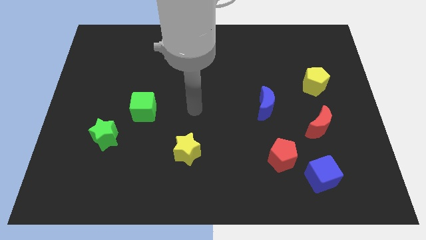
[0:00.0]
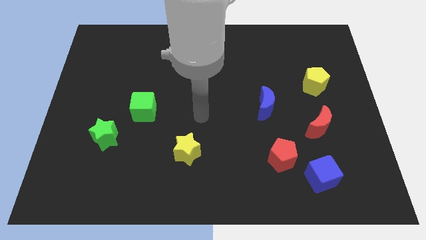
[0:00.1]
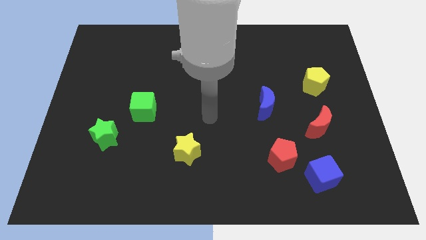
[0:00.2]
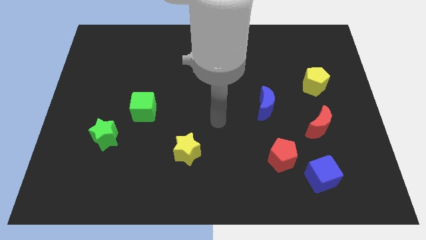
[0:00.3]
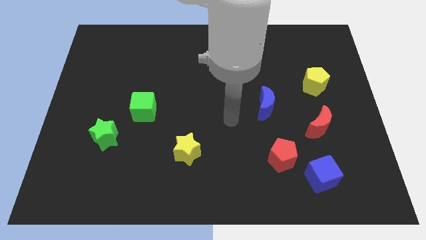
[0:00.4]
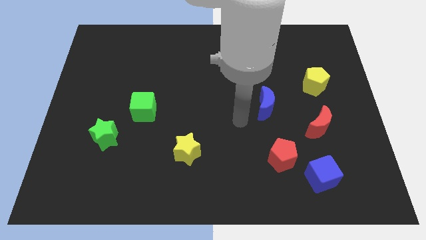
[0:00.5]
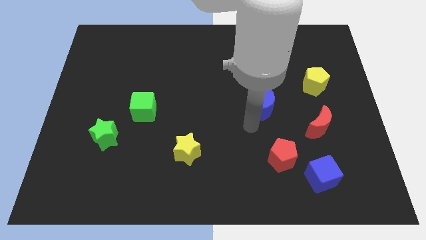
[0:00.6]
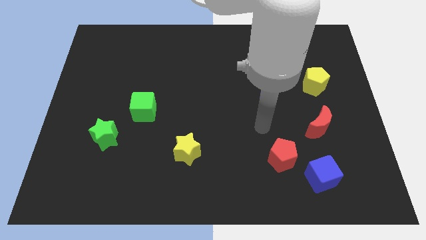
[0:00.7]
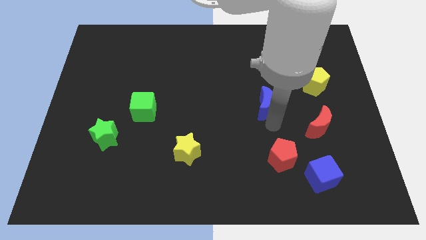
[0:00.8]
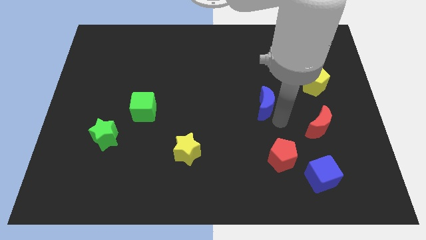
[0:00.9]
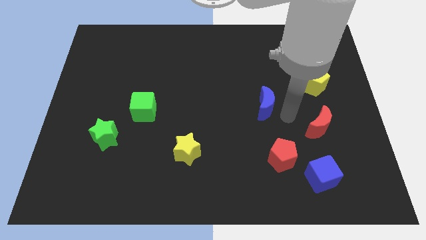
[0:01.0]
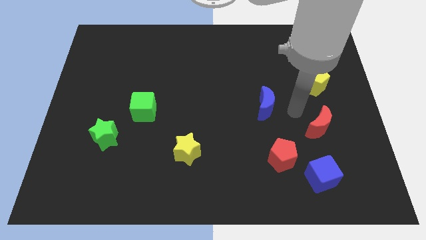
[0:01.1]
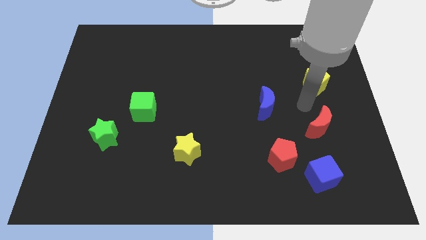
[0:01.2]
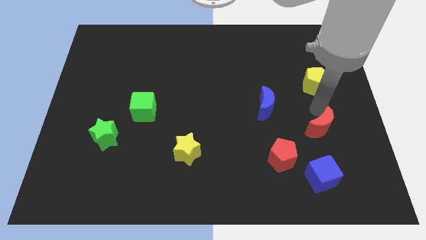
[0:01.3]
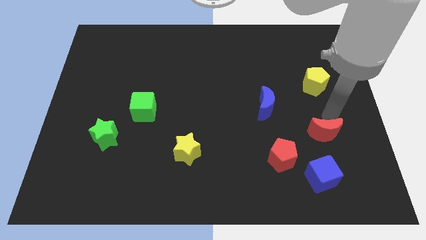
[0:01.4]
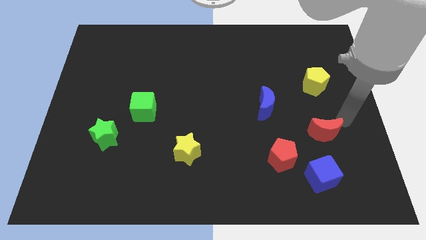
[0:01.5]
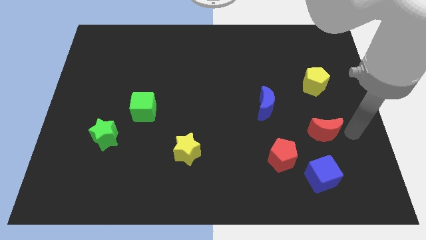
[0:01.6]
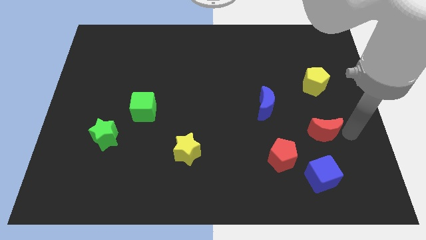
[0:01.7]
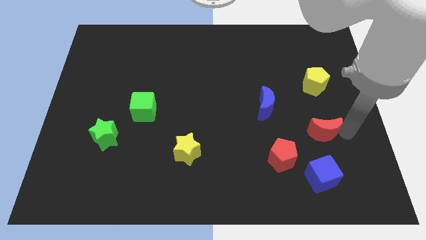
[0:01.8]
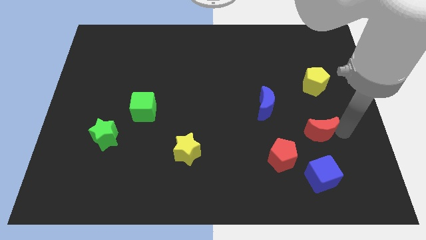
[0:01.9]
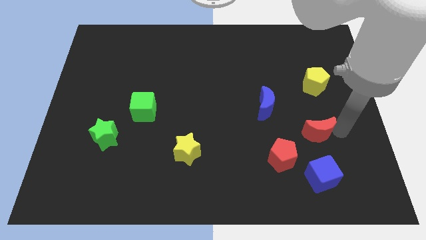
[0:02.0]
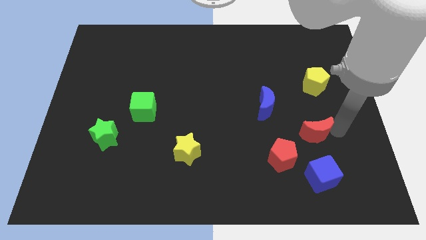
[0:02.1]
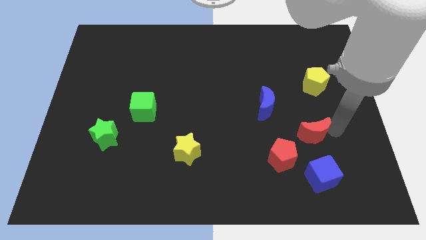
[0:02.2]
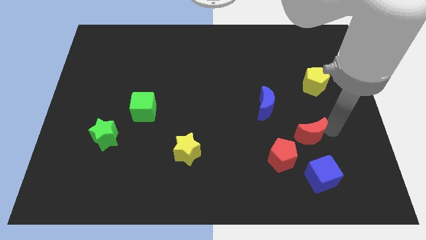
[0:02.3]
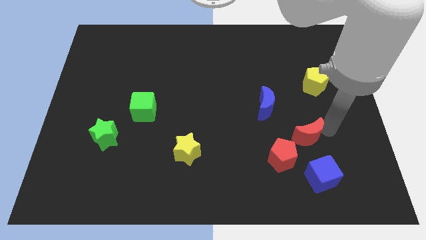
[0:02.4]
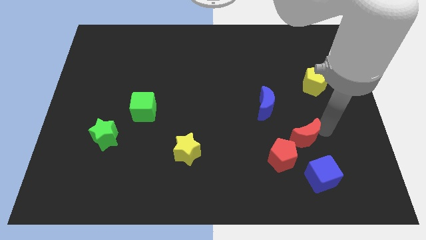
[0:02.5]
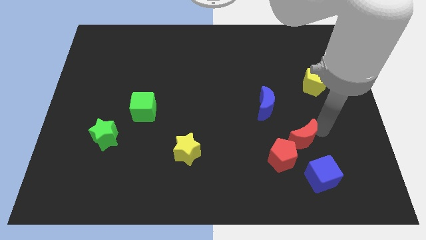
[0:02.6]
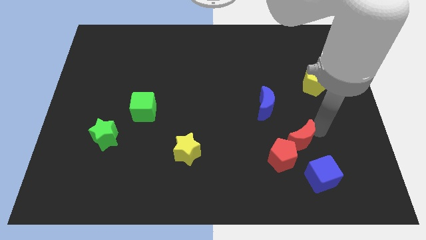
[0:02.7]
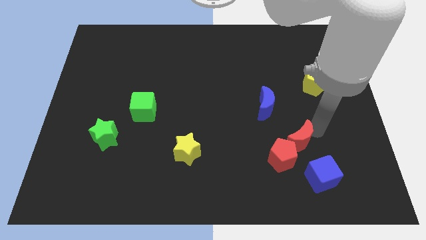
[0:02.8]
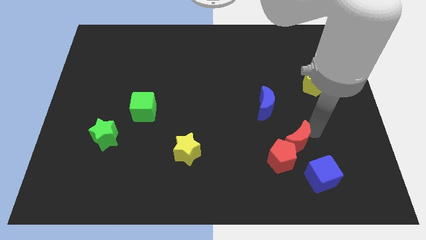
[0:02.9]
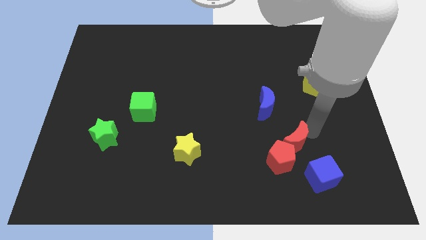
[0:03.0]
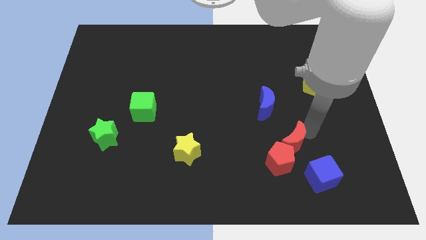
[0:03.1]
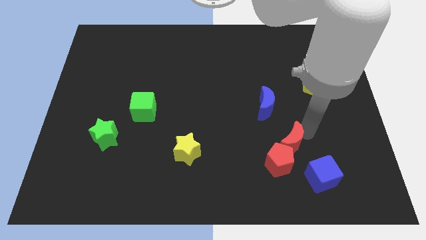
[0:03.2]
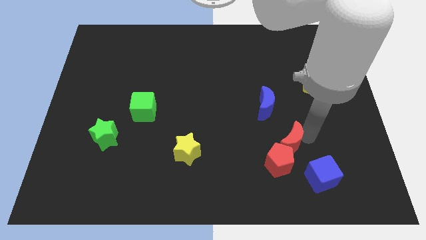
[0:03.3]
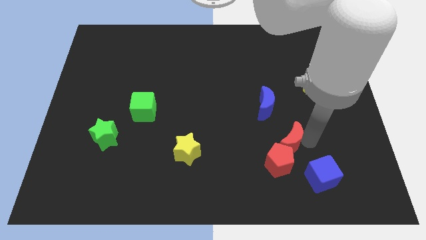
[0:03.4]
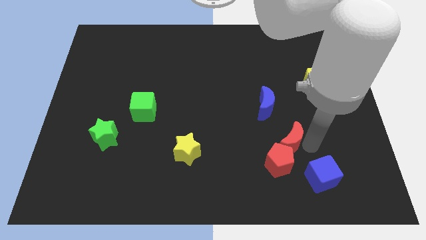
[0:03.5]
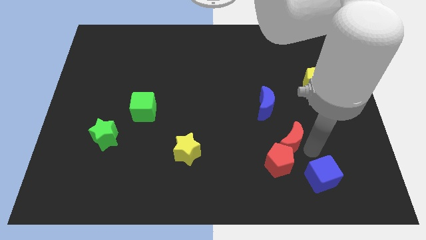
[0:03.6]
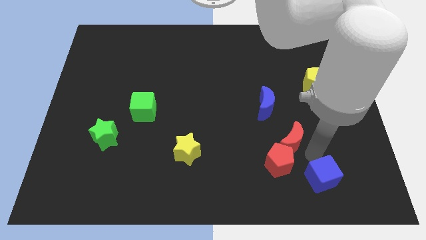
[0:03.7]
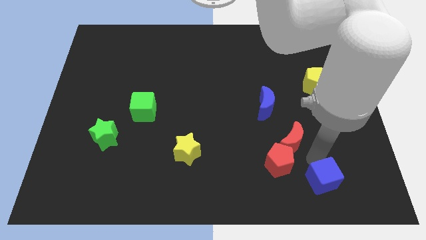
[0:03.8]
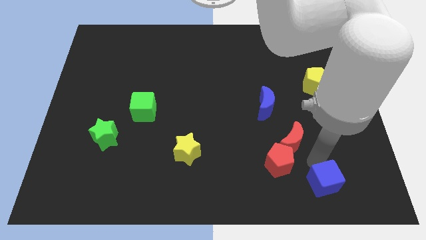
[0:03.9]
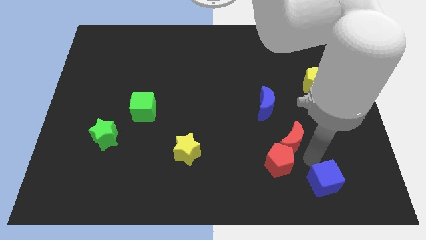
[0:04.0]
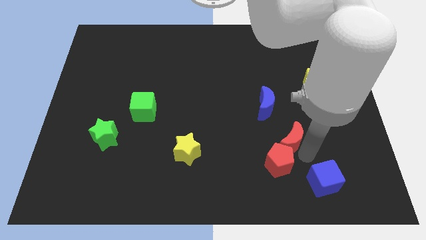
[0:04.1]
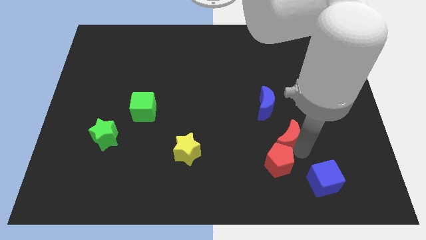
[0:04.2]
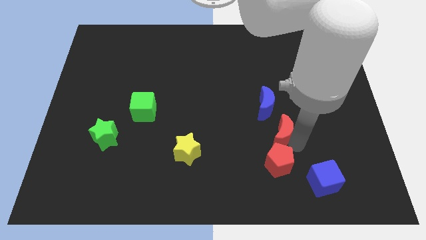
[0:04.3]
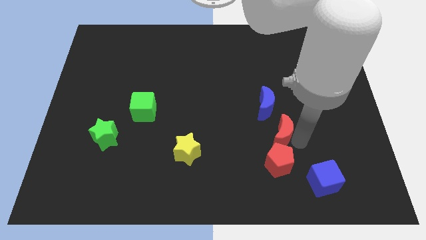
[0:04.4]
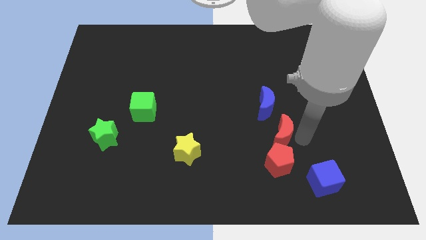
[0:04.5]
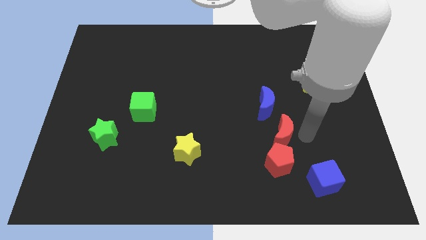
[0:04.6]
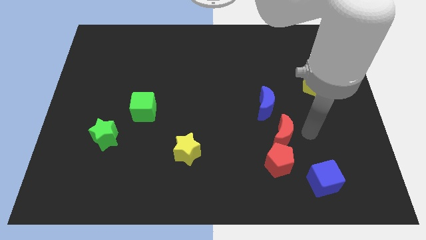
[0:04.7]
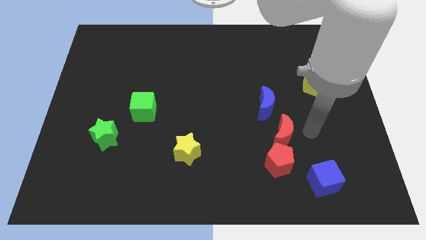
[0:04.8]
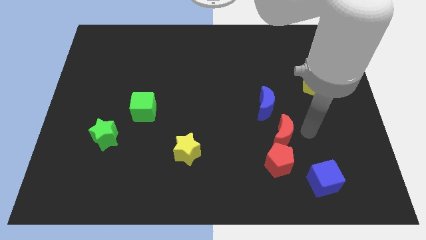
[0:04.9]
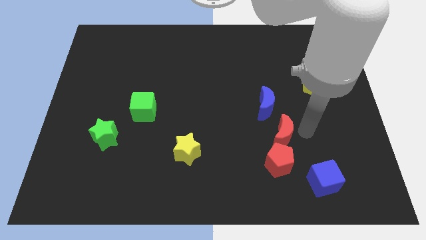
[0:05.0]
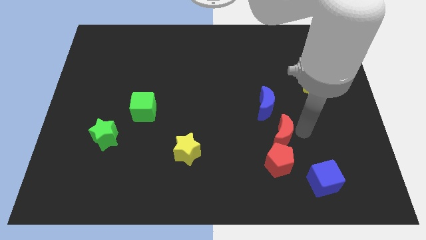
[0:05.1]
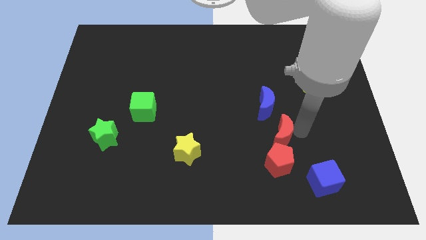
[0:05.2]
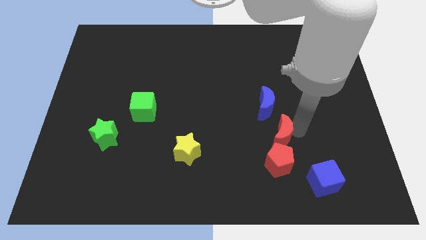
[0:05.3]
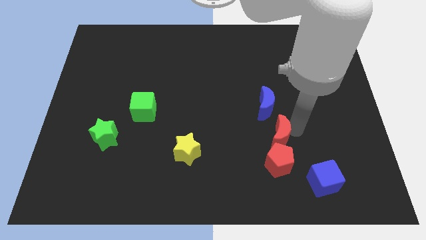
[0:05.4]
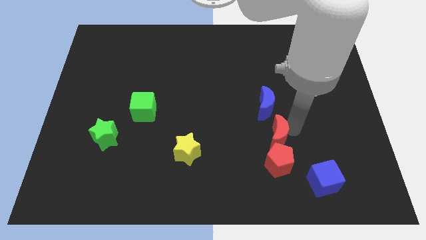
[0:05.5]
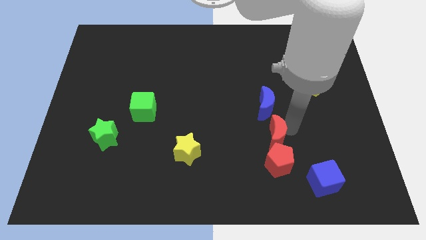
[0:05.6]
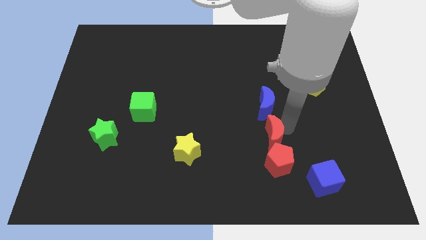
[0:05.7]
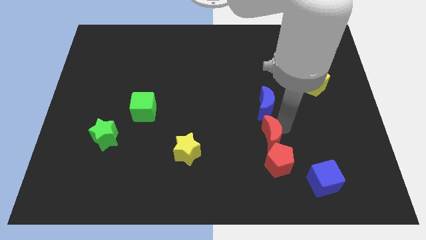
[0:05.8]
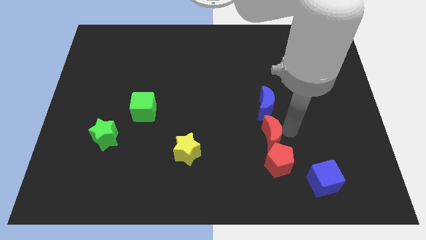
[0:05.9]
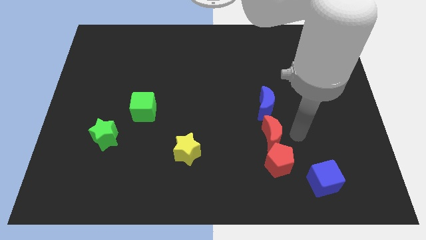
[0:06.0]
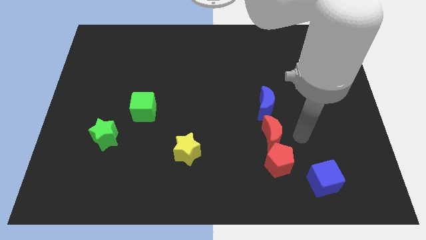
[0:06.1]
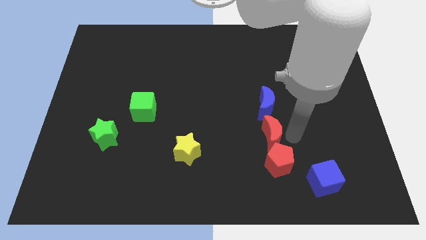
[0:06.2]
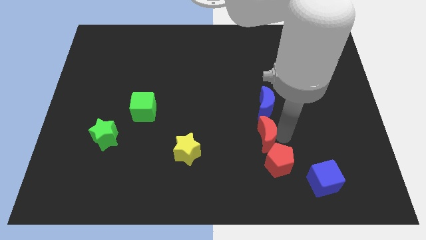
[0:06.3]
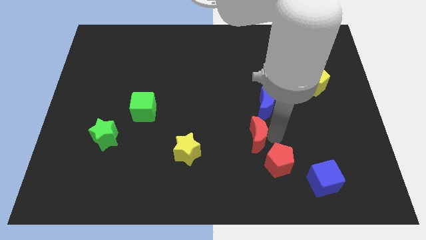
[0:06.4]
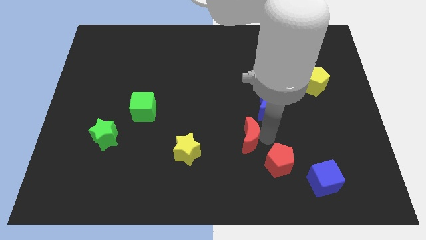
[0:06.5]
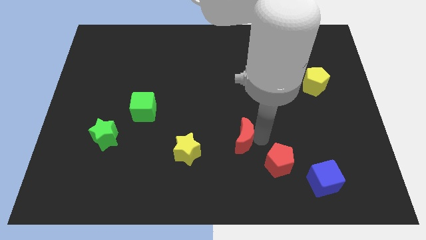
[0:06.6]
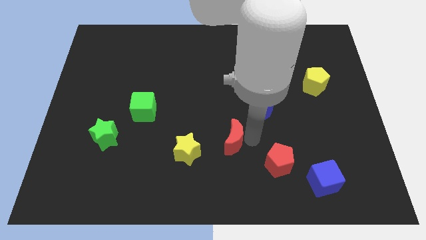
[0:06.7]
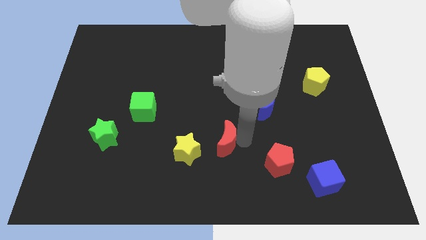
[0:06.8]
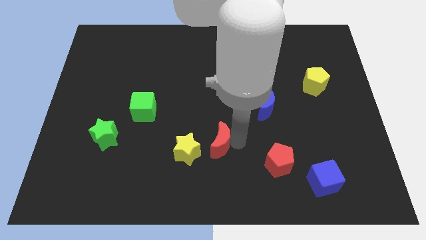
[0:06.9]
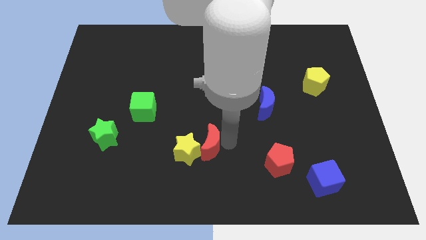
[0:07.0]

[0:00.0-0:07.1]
move the red moon next to the yellow star
